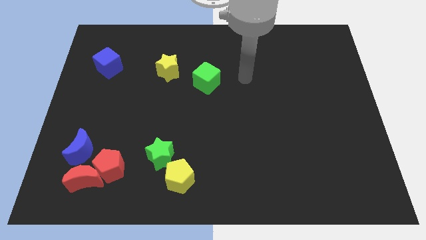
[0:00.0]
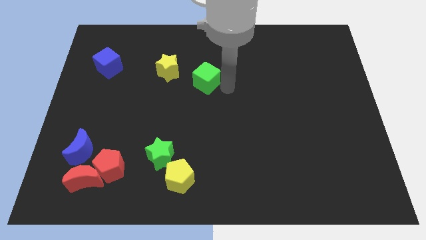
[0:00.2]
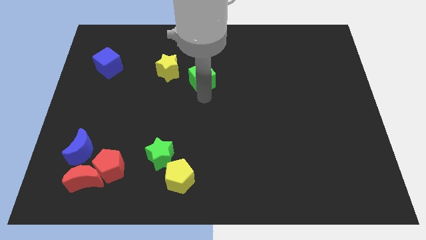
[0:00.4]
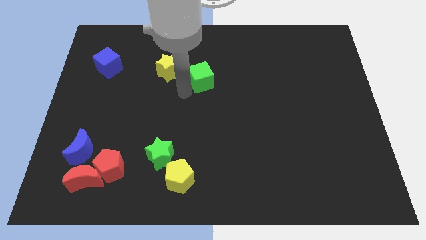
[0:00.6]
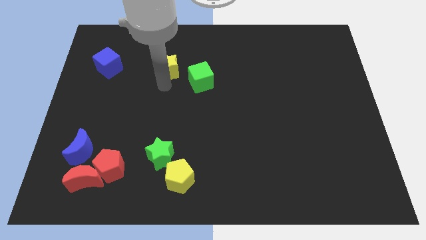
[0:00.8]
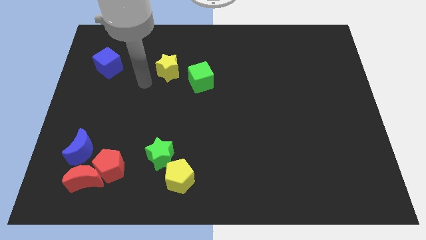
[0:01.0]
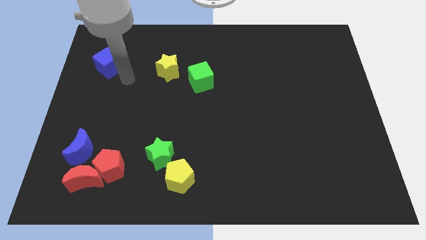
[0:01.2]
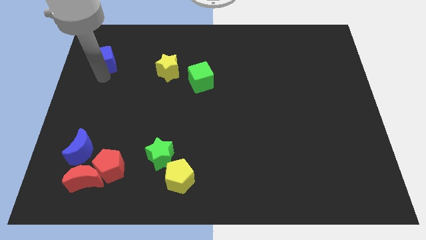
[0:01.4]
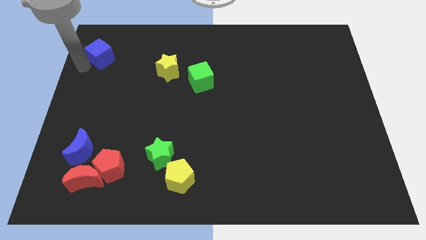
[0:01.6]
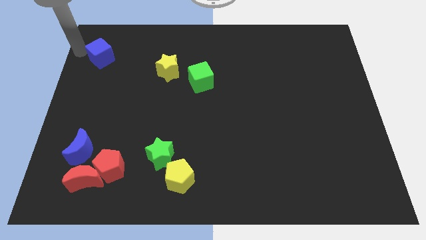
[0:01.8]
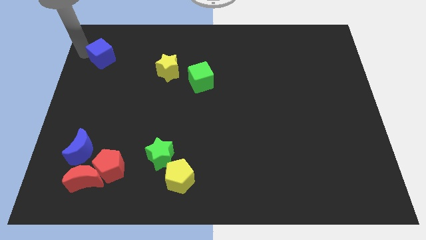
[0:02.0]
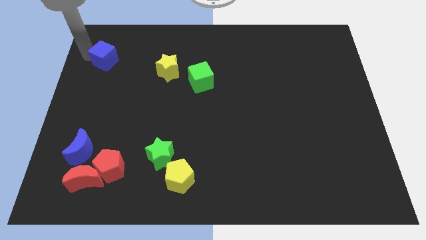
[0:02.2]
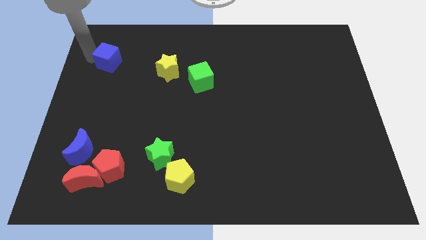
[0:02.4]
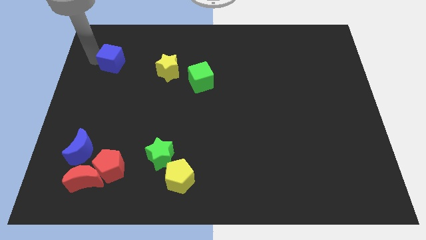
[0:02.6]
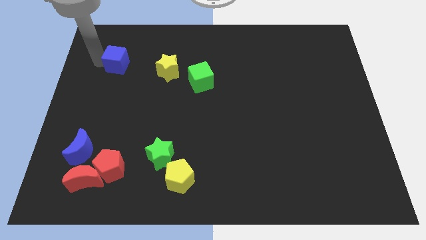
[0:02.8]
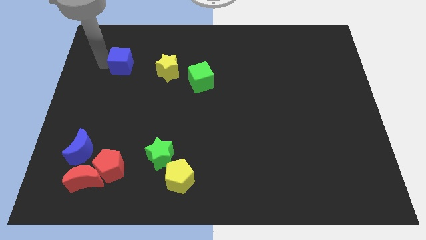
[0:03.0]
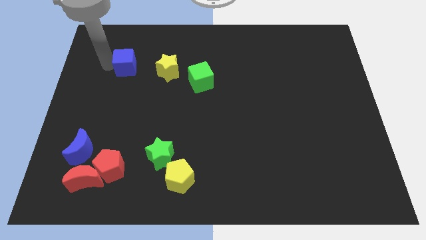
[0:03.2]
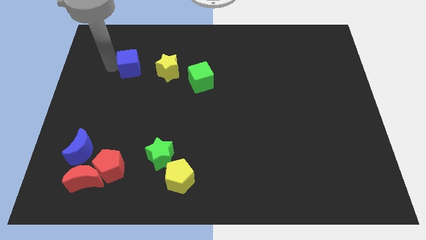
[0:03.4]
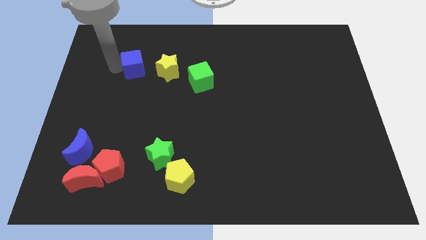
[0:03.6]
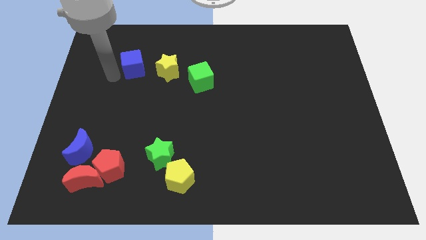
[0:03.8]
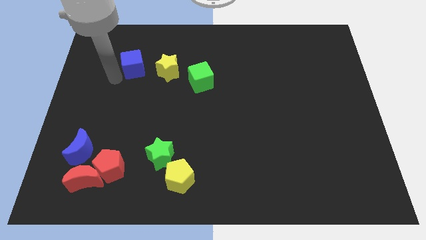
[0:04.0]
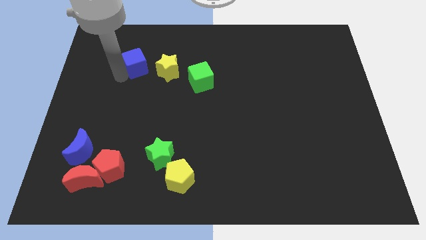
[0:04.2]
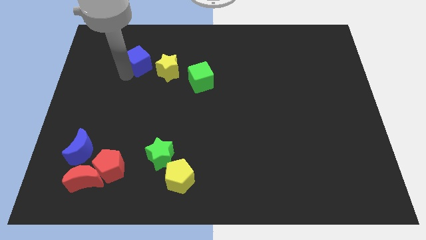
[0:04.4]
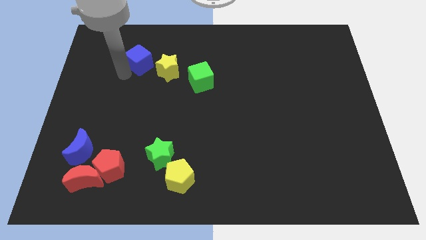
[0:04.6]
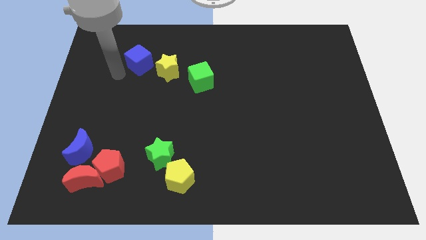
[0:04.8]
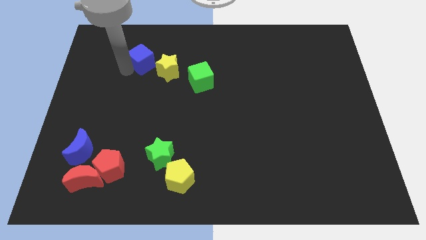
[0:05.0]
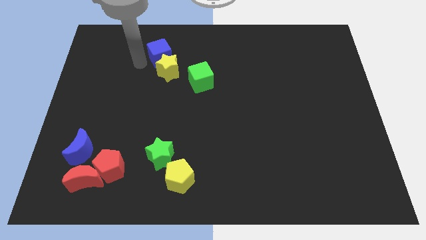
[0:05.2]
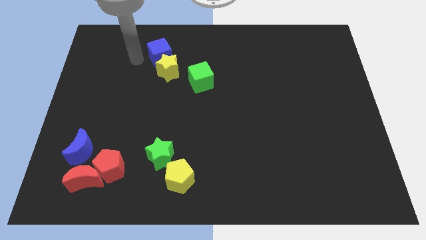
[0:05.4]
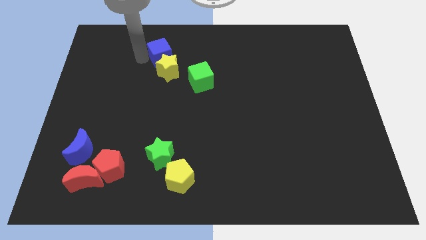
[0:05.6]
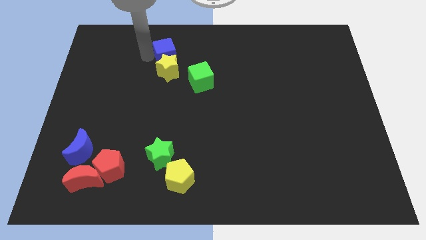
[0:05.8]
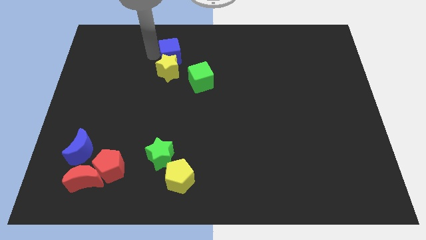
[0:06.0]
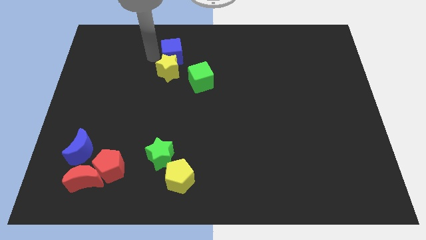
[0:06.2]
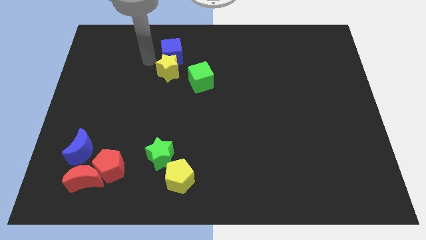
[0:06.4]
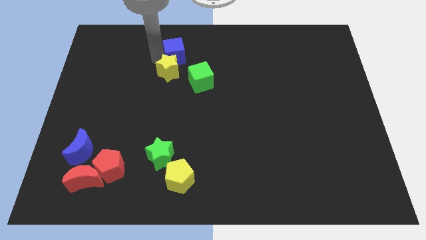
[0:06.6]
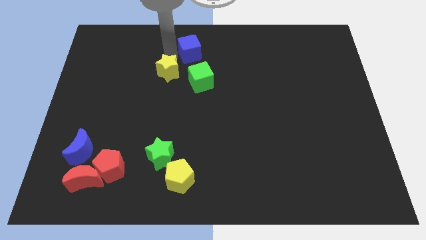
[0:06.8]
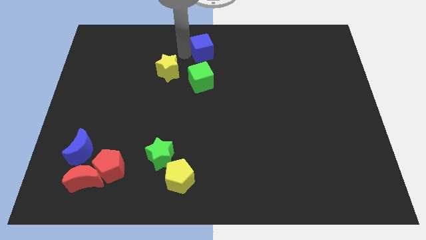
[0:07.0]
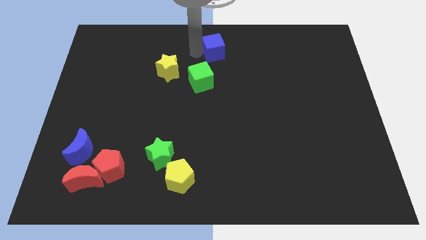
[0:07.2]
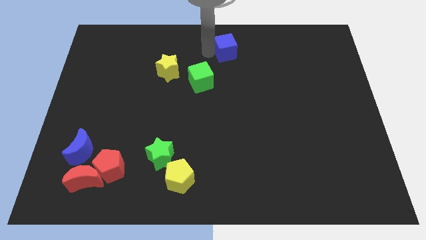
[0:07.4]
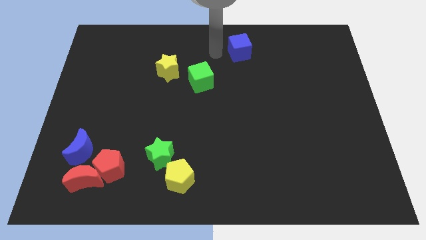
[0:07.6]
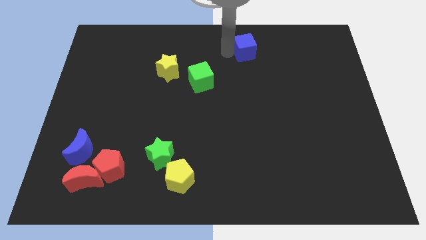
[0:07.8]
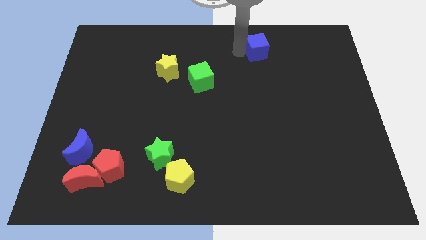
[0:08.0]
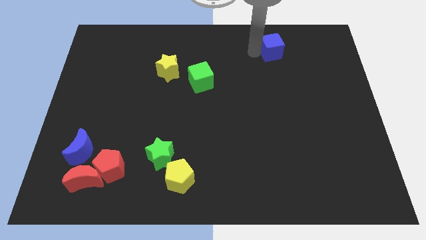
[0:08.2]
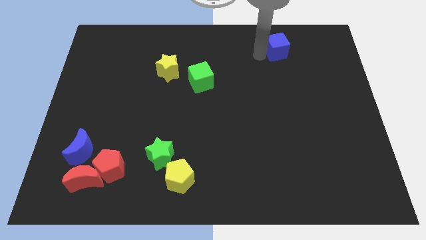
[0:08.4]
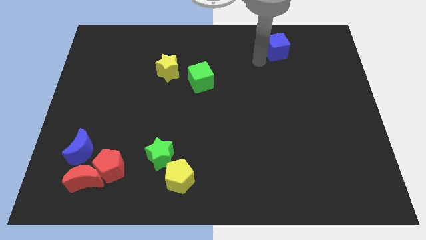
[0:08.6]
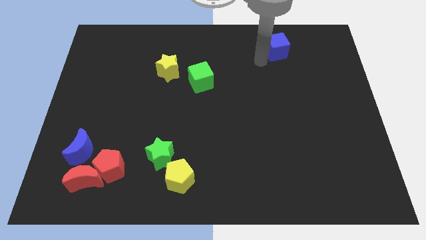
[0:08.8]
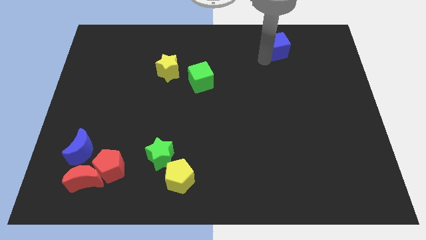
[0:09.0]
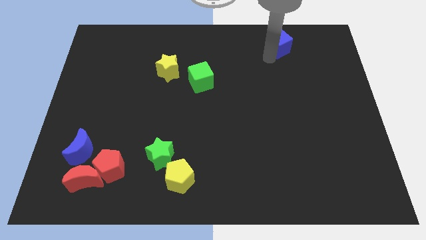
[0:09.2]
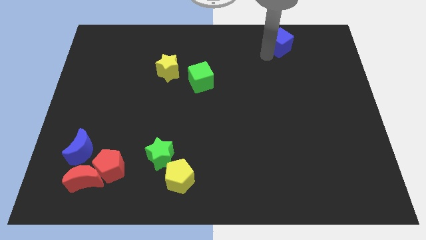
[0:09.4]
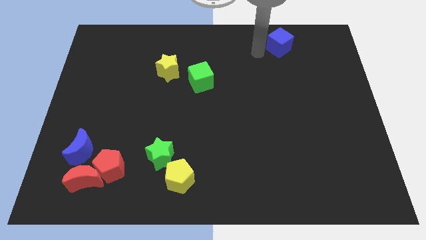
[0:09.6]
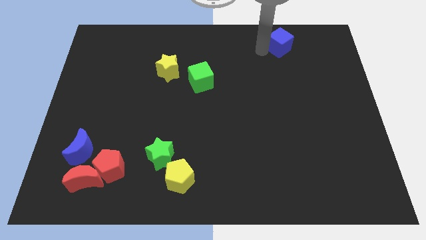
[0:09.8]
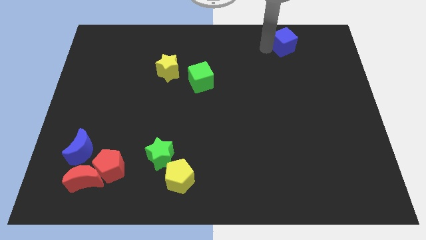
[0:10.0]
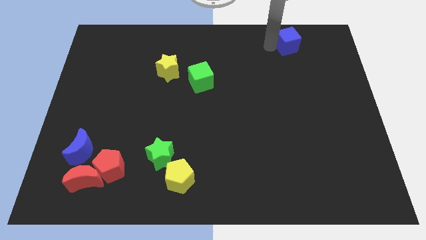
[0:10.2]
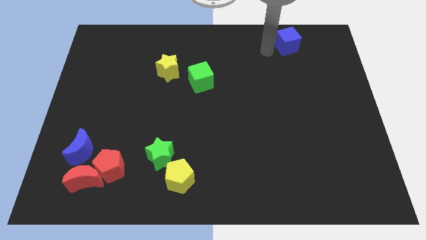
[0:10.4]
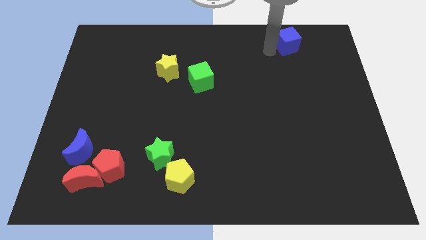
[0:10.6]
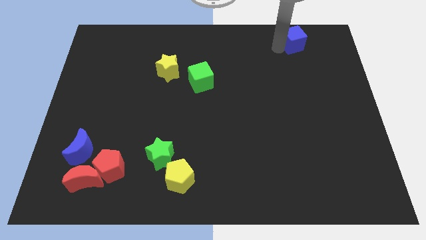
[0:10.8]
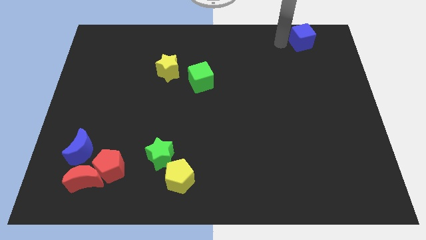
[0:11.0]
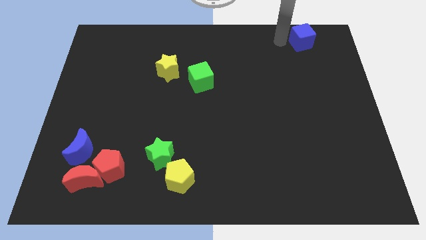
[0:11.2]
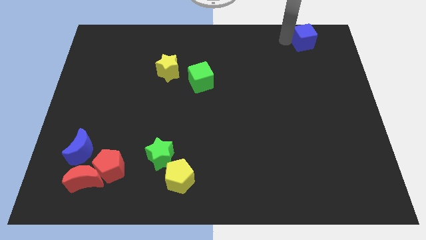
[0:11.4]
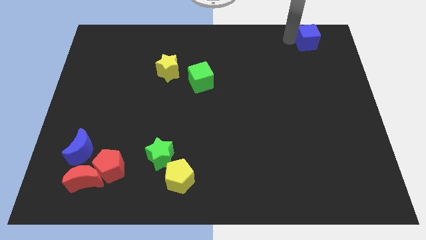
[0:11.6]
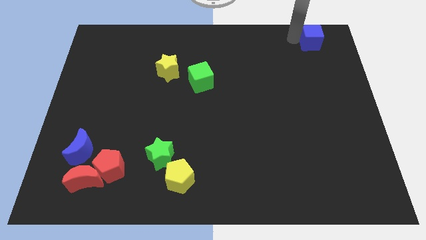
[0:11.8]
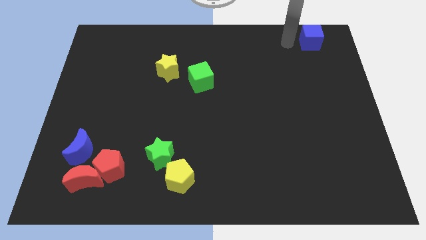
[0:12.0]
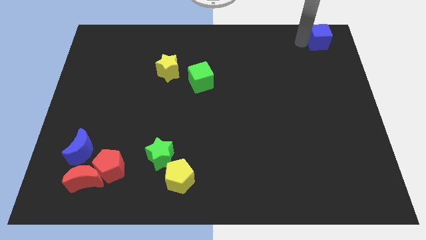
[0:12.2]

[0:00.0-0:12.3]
slide the blue cube to the top right corner

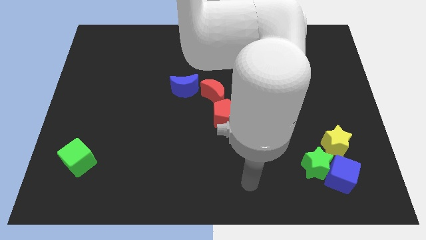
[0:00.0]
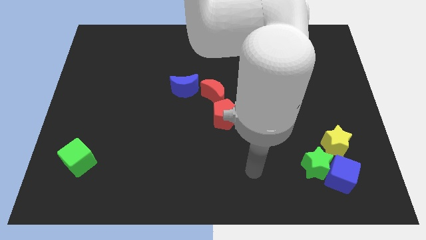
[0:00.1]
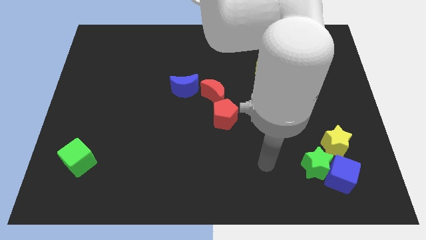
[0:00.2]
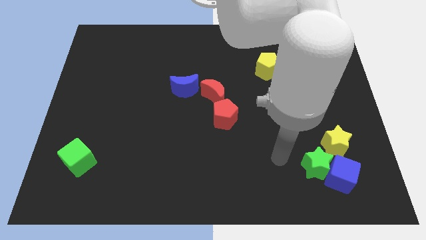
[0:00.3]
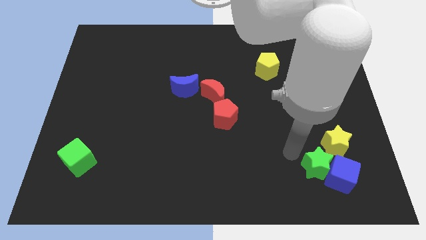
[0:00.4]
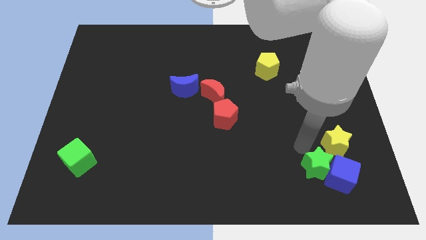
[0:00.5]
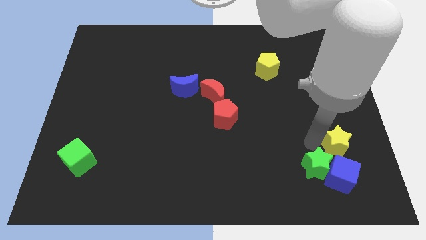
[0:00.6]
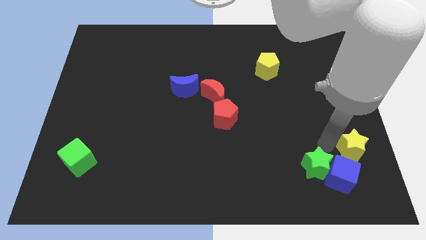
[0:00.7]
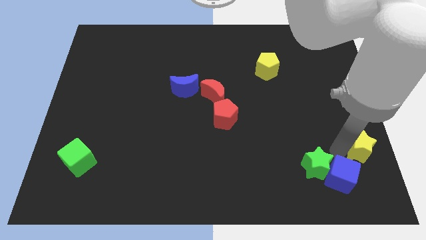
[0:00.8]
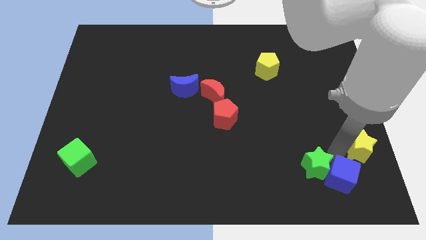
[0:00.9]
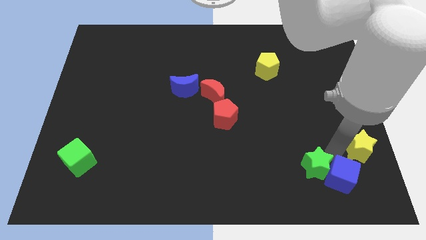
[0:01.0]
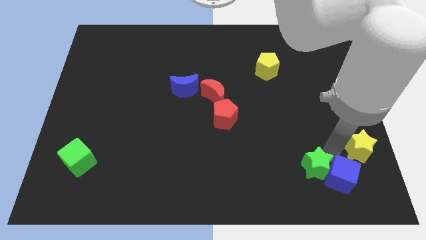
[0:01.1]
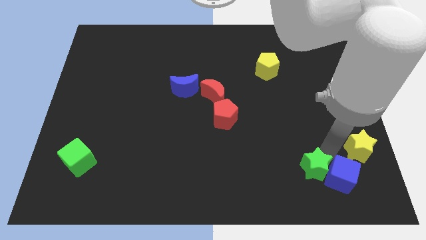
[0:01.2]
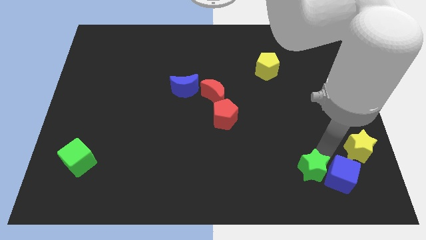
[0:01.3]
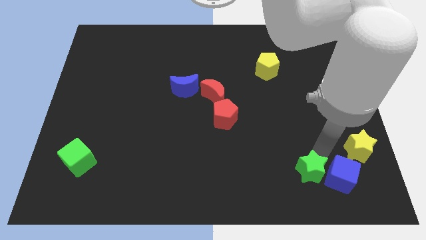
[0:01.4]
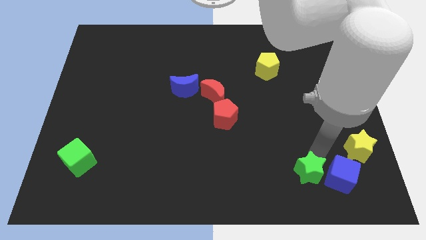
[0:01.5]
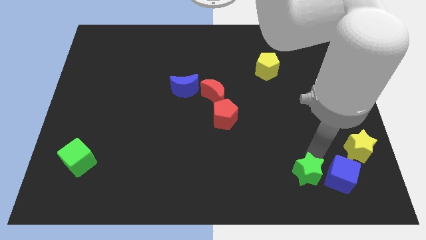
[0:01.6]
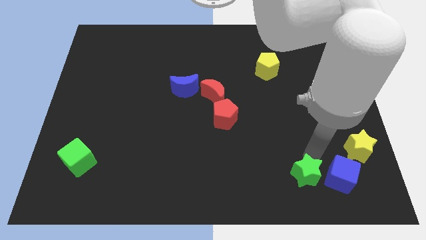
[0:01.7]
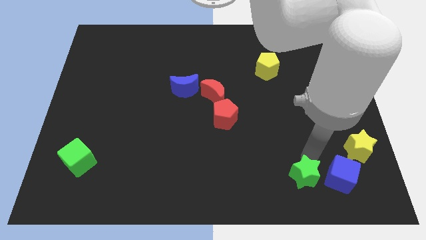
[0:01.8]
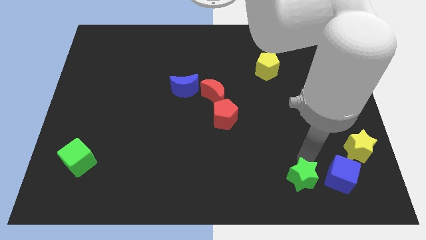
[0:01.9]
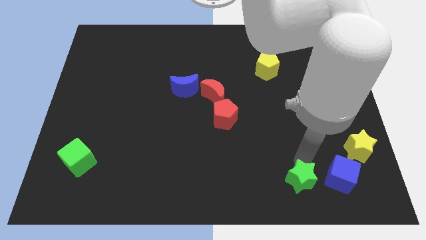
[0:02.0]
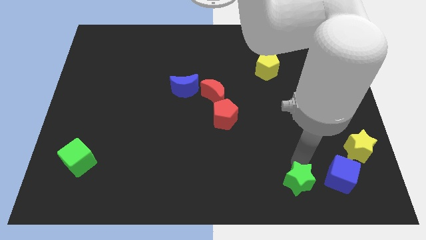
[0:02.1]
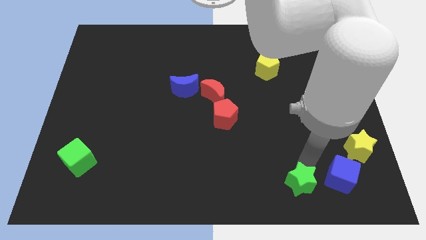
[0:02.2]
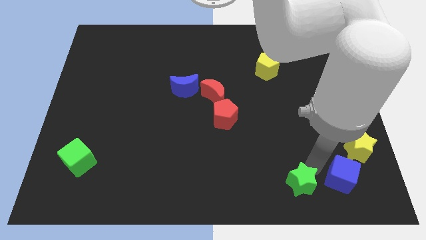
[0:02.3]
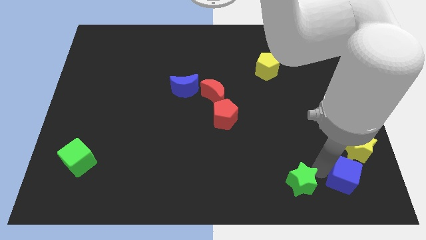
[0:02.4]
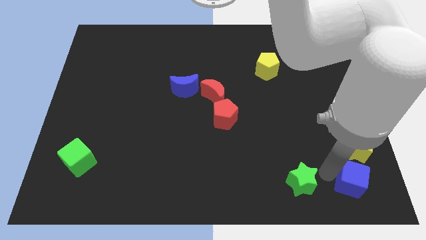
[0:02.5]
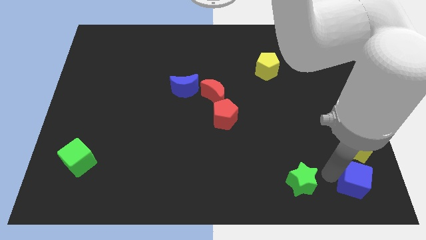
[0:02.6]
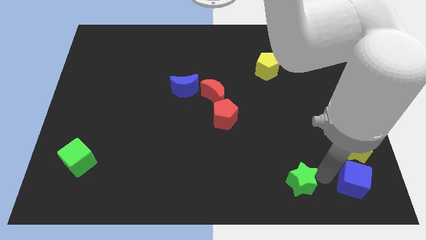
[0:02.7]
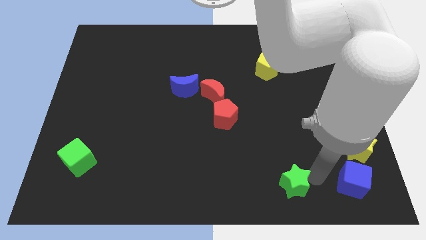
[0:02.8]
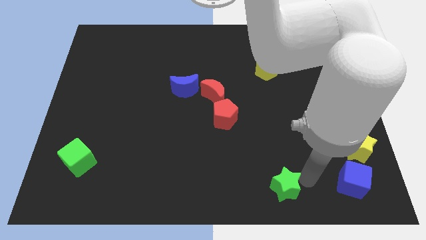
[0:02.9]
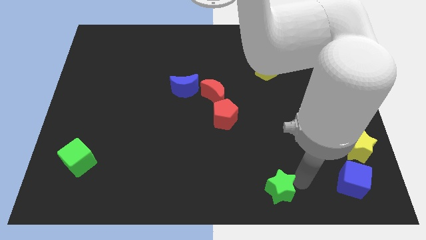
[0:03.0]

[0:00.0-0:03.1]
slide the green star to the bottom
